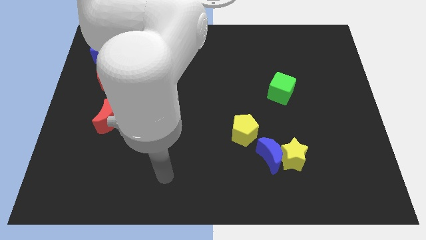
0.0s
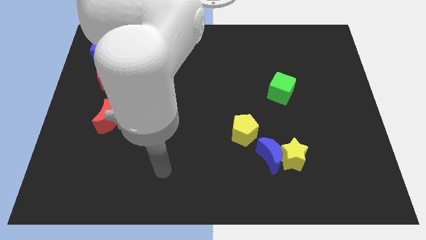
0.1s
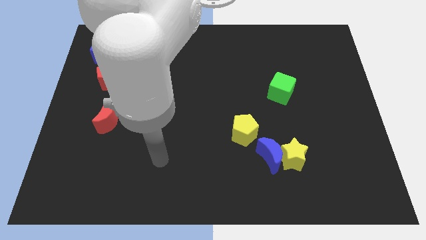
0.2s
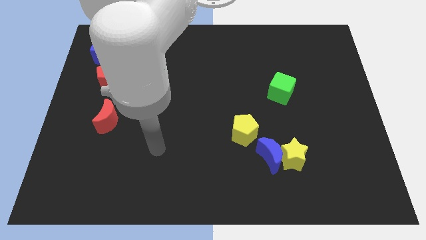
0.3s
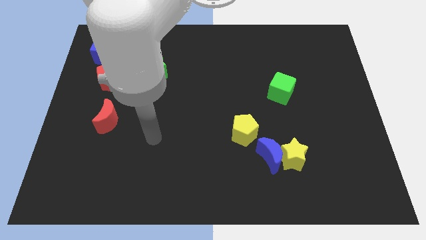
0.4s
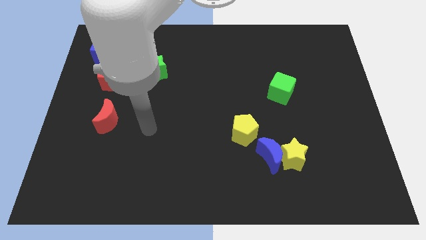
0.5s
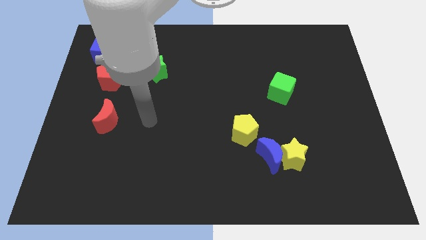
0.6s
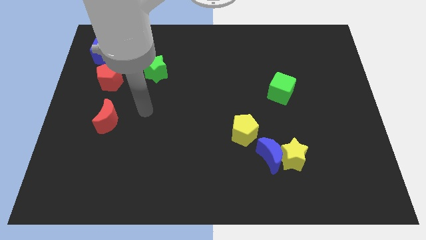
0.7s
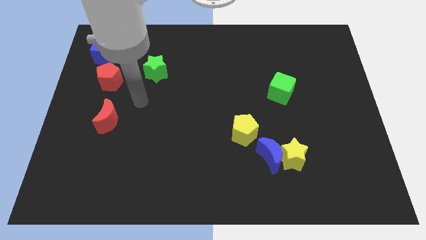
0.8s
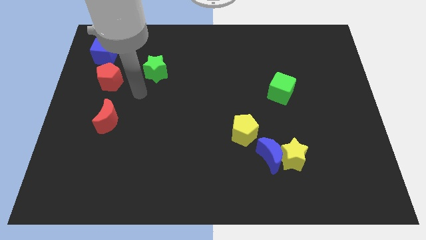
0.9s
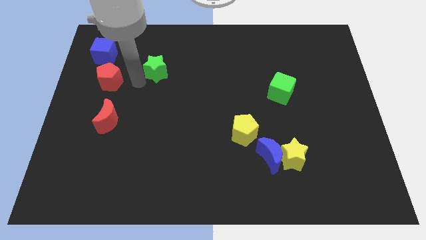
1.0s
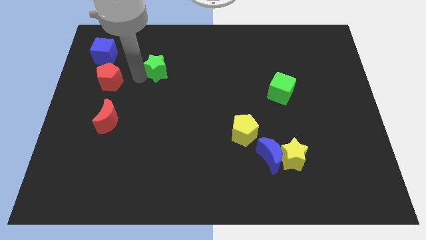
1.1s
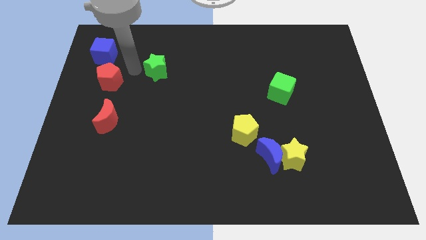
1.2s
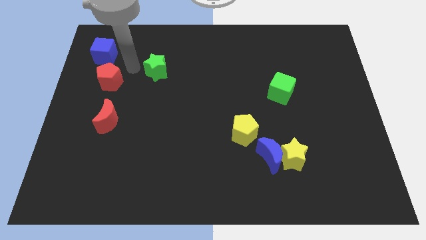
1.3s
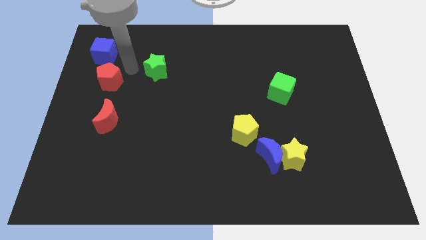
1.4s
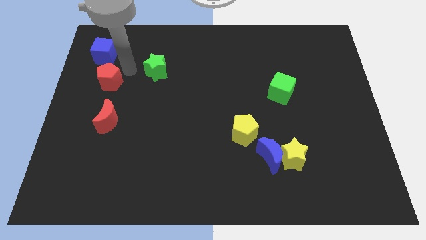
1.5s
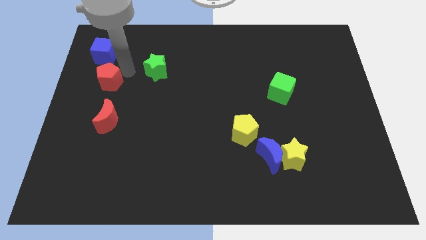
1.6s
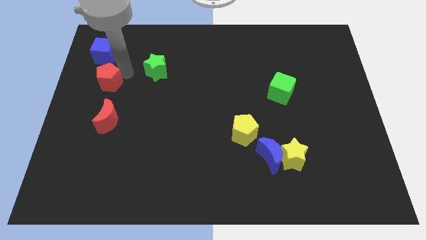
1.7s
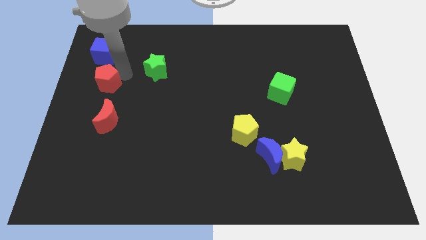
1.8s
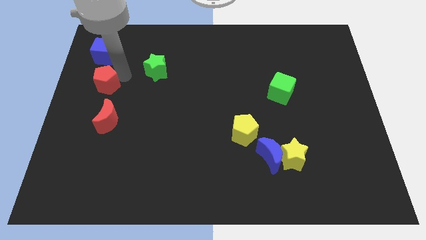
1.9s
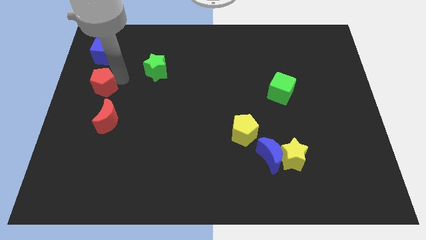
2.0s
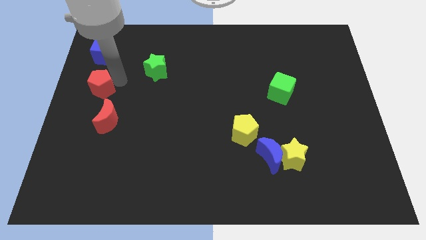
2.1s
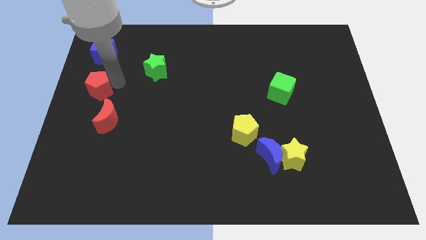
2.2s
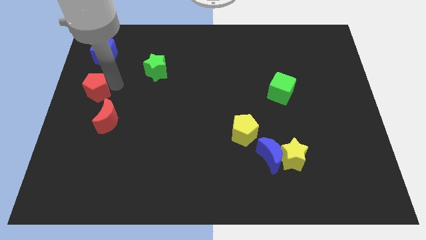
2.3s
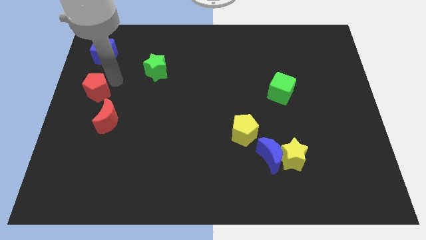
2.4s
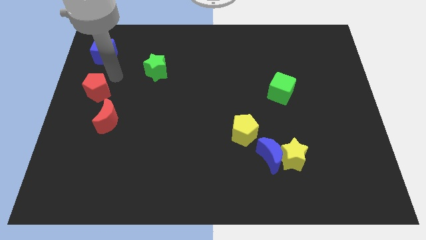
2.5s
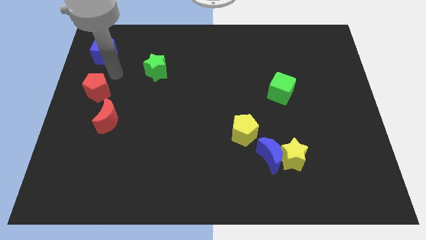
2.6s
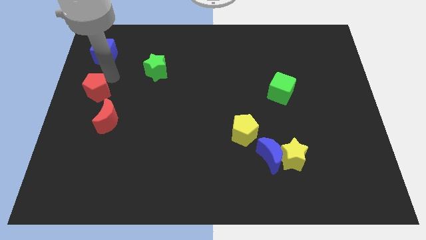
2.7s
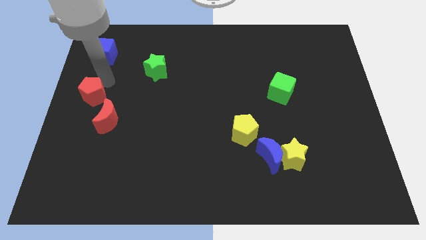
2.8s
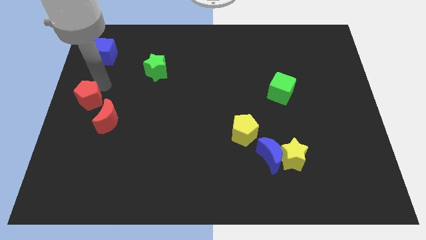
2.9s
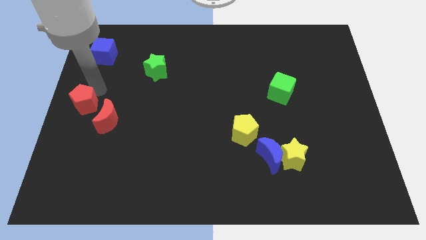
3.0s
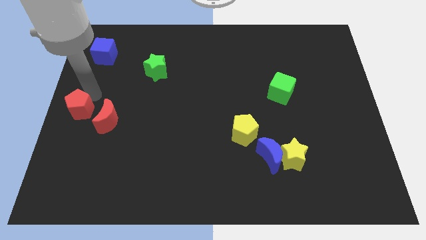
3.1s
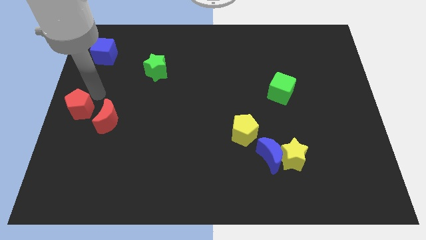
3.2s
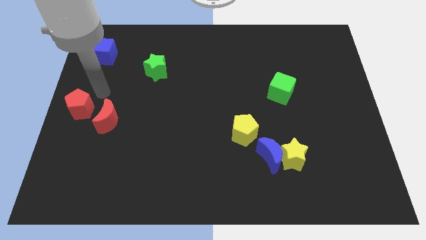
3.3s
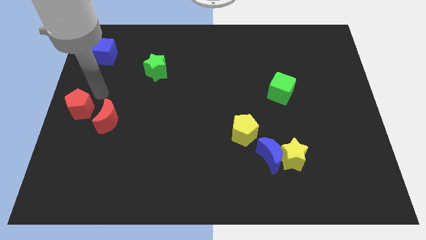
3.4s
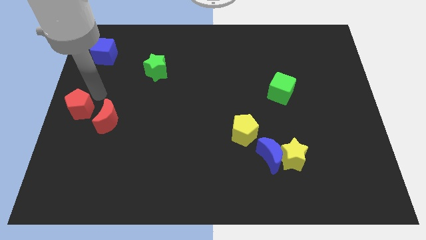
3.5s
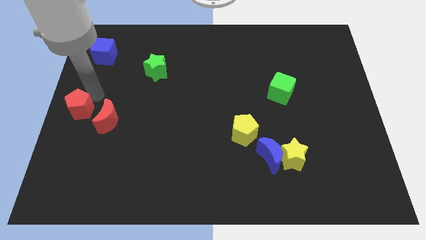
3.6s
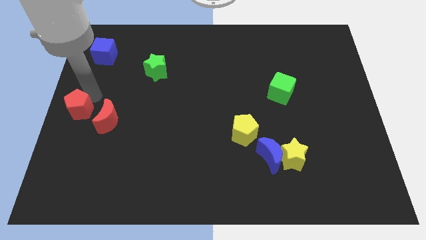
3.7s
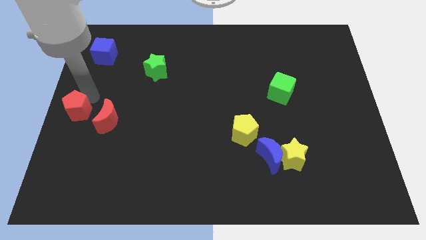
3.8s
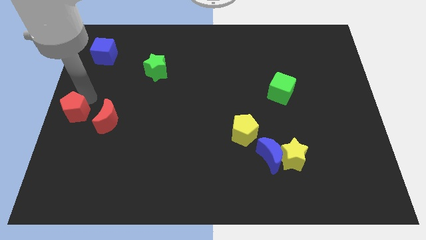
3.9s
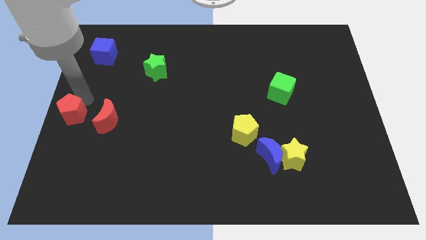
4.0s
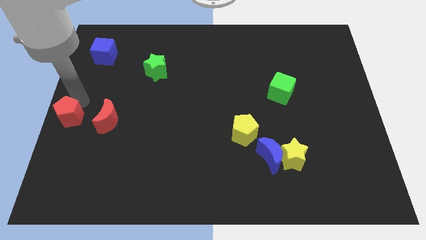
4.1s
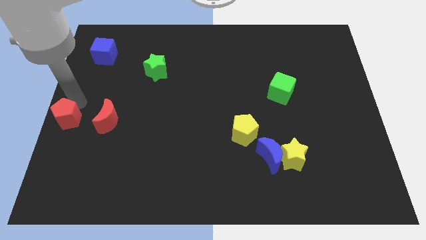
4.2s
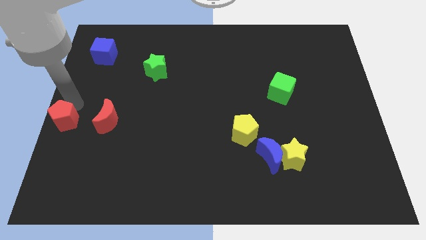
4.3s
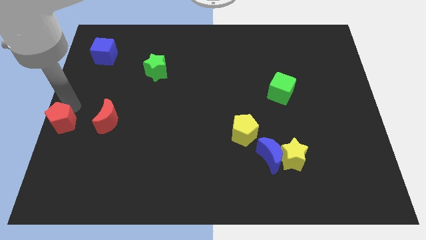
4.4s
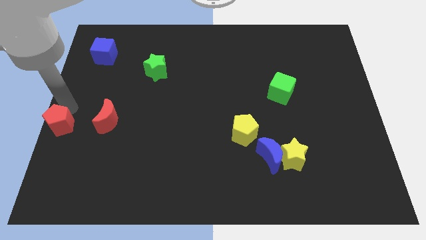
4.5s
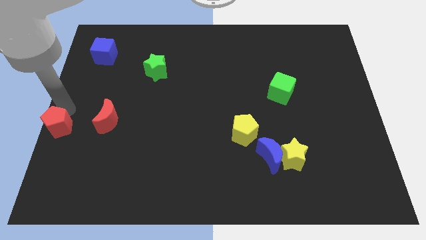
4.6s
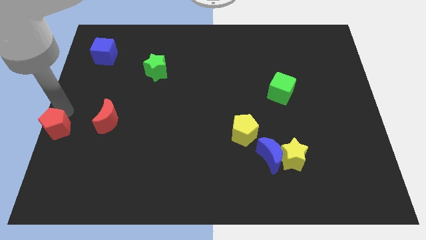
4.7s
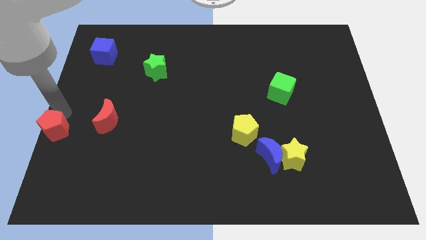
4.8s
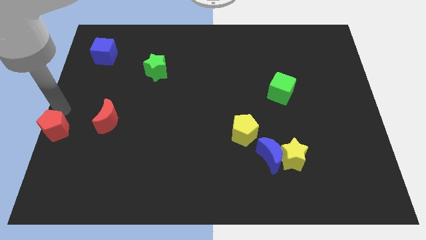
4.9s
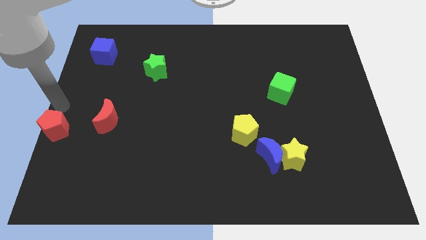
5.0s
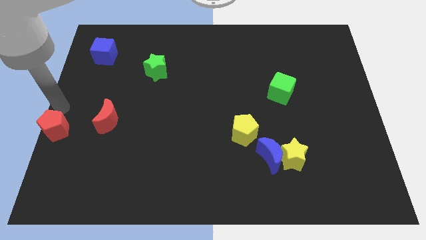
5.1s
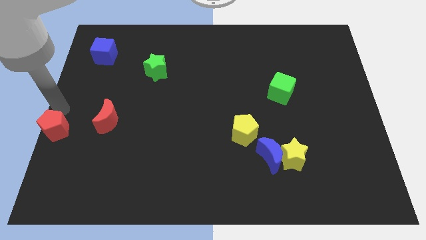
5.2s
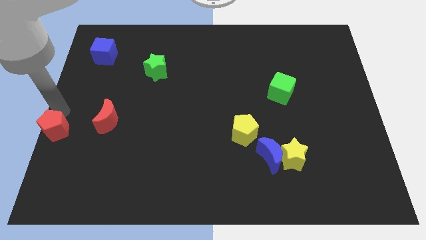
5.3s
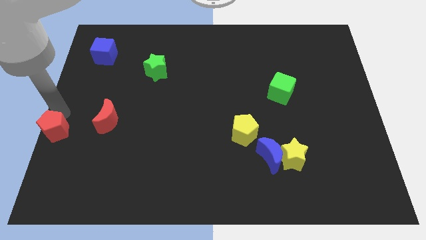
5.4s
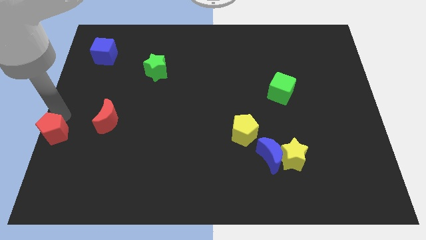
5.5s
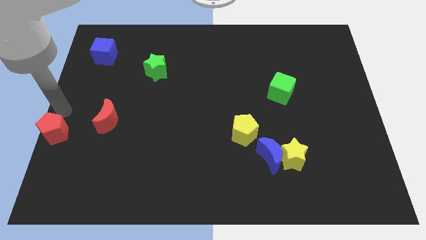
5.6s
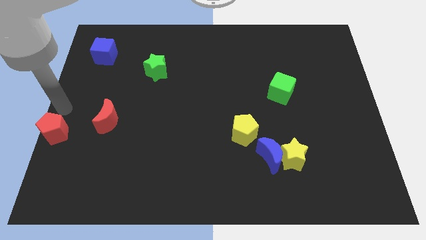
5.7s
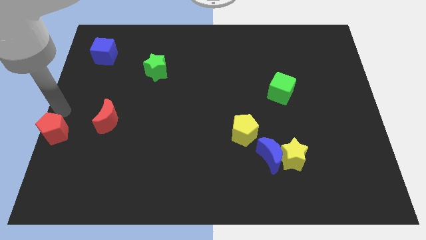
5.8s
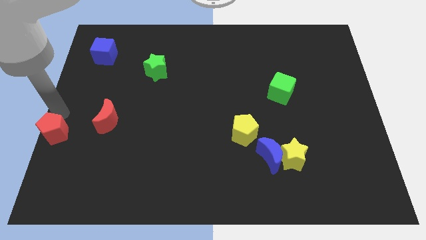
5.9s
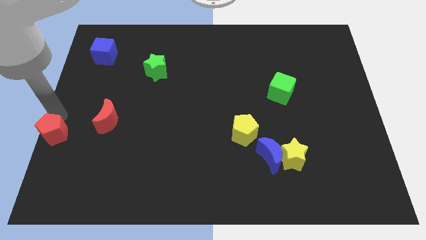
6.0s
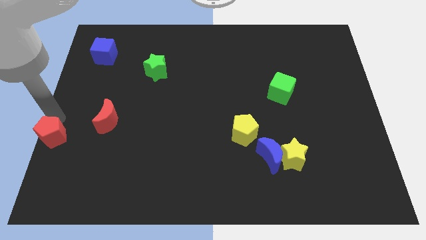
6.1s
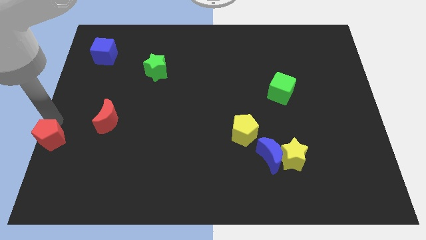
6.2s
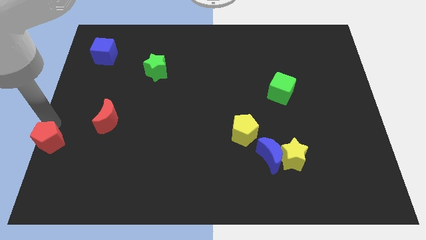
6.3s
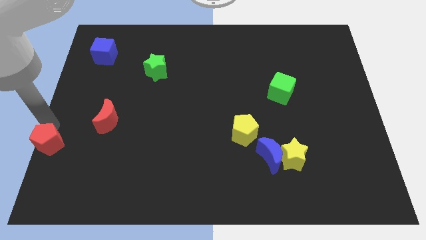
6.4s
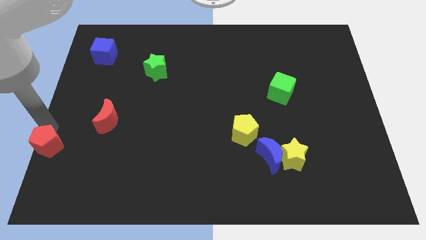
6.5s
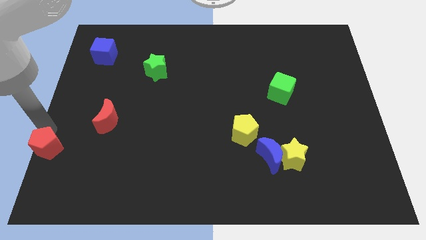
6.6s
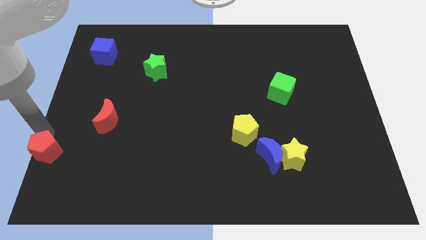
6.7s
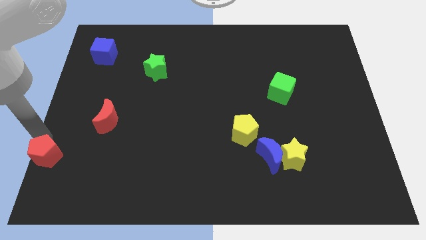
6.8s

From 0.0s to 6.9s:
push the red pentagon to the bottom left corner
